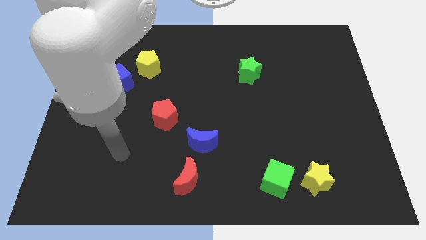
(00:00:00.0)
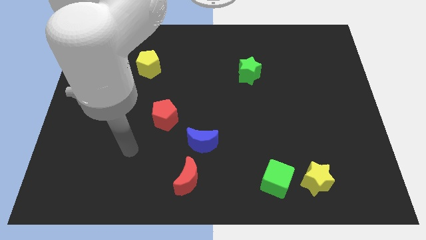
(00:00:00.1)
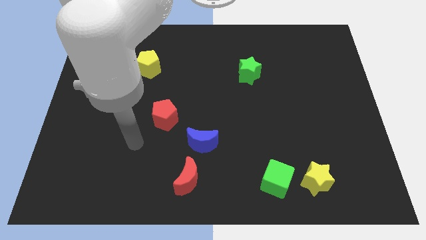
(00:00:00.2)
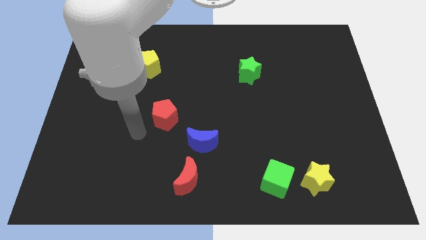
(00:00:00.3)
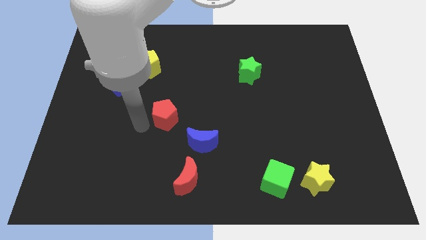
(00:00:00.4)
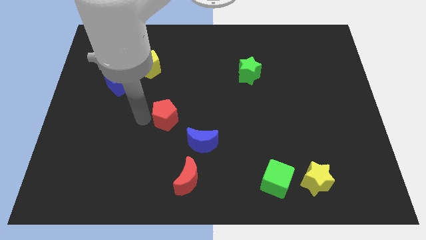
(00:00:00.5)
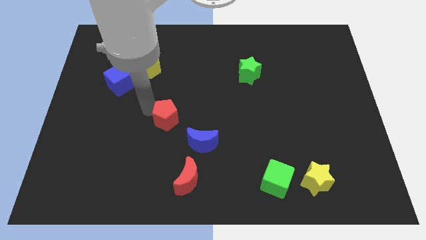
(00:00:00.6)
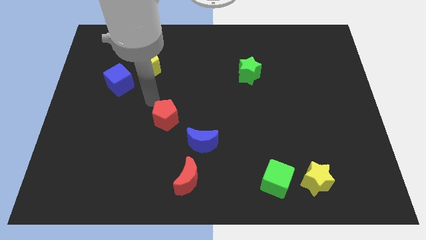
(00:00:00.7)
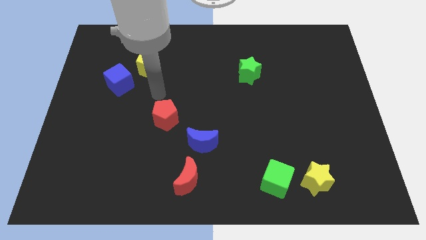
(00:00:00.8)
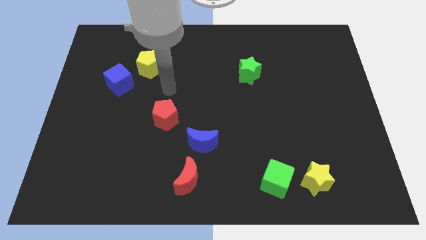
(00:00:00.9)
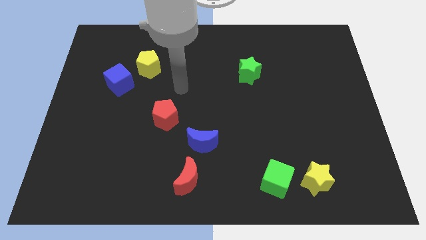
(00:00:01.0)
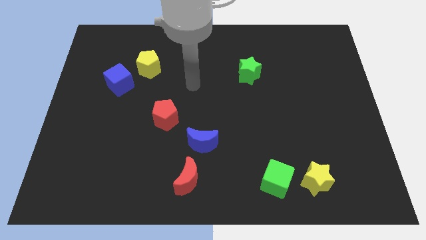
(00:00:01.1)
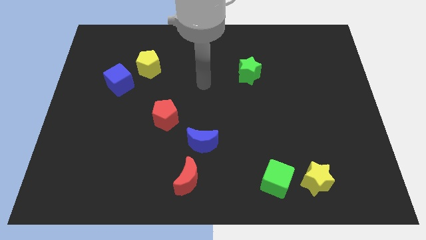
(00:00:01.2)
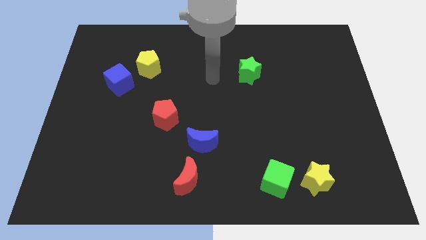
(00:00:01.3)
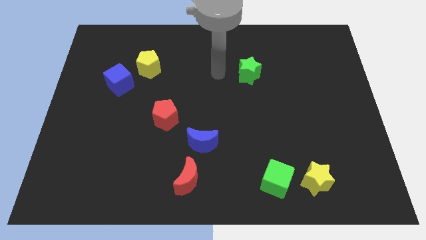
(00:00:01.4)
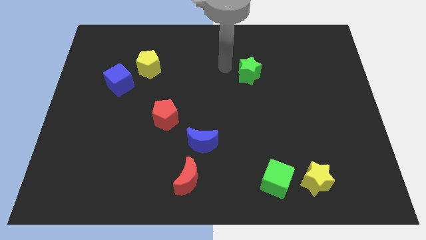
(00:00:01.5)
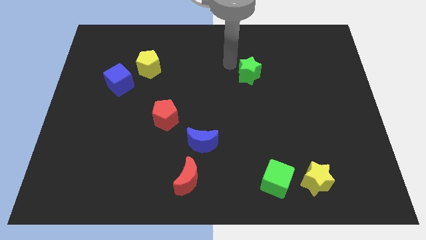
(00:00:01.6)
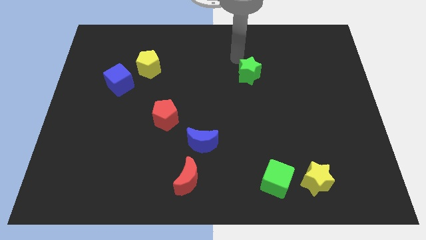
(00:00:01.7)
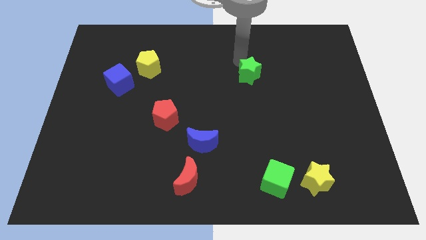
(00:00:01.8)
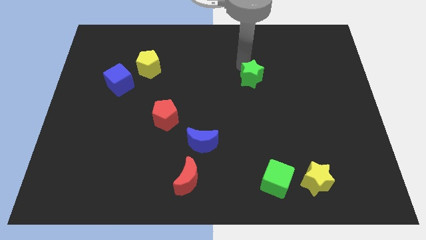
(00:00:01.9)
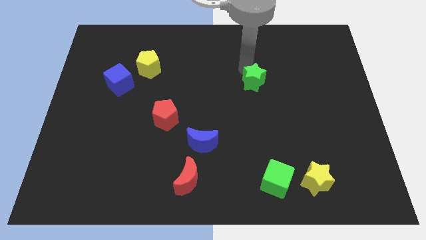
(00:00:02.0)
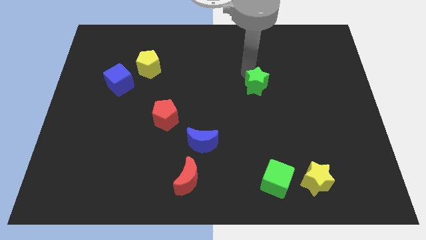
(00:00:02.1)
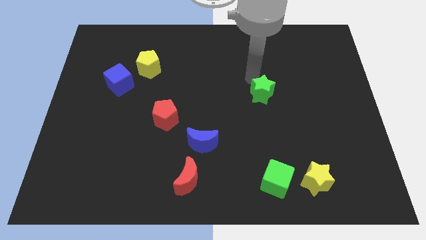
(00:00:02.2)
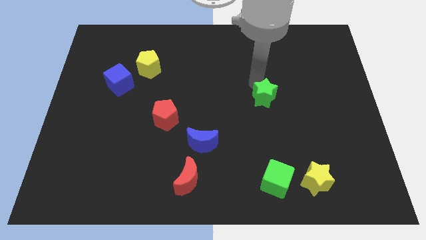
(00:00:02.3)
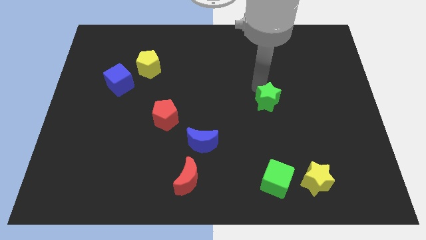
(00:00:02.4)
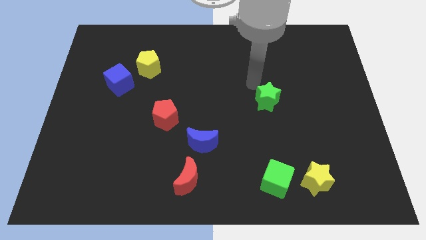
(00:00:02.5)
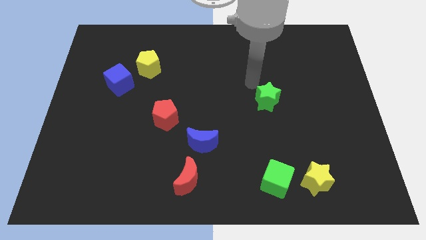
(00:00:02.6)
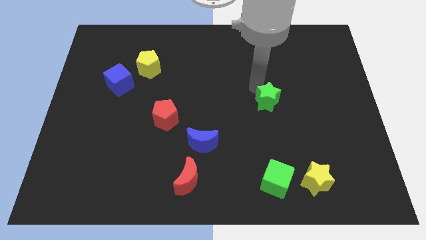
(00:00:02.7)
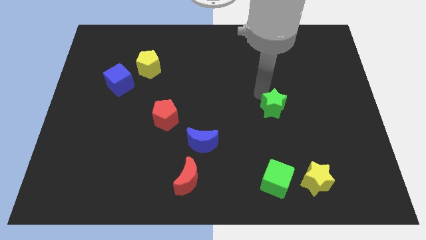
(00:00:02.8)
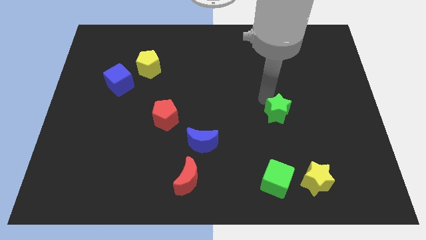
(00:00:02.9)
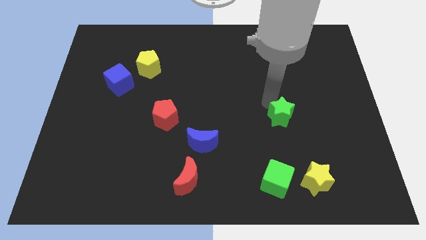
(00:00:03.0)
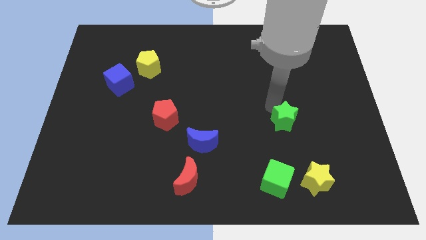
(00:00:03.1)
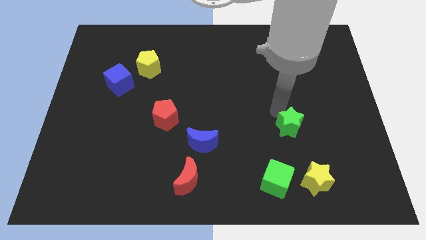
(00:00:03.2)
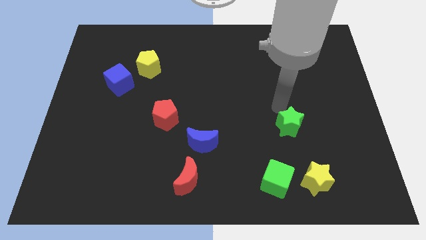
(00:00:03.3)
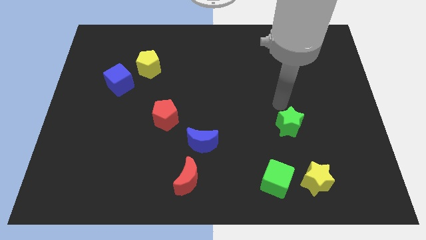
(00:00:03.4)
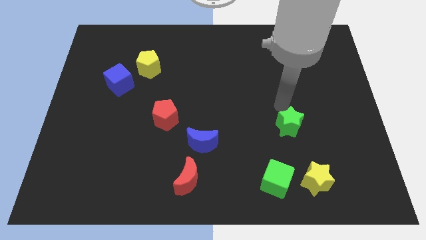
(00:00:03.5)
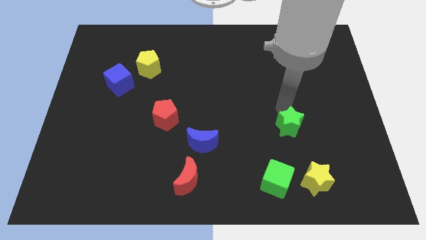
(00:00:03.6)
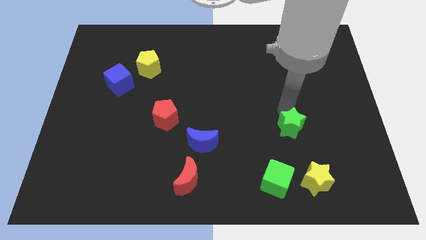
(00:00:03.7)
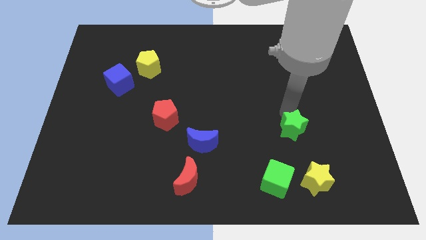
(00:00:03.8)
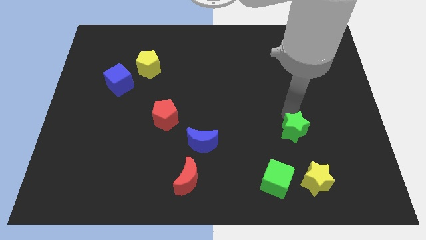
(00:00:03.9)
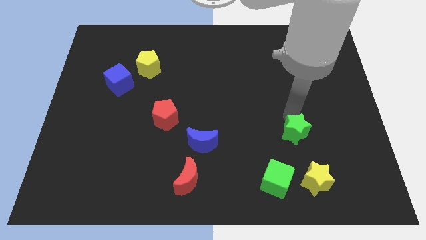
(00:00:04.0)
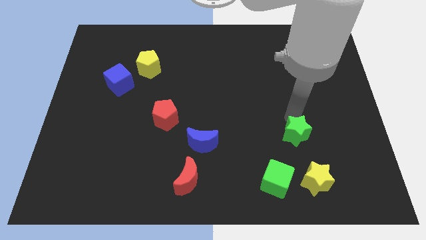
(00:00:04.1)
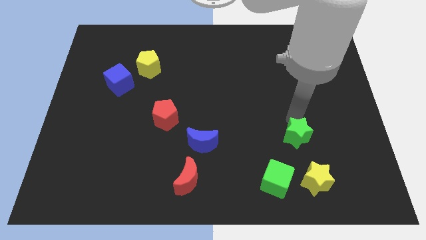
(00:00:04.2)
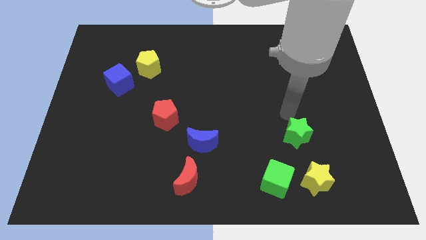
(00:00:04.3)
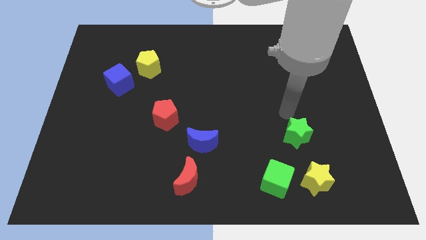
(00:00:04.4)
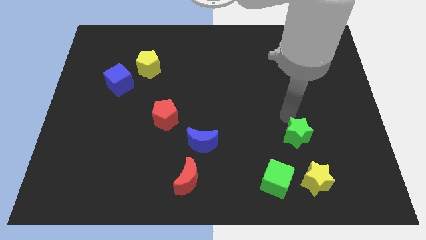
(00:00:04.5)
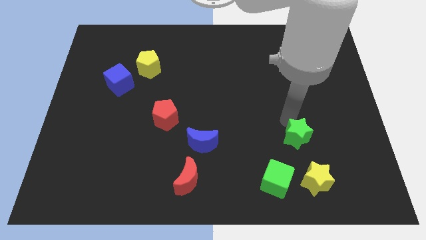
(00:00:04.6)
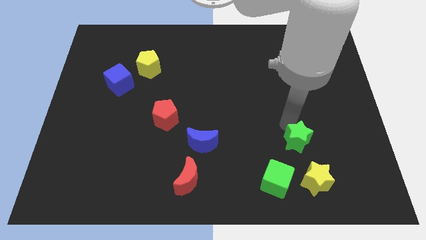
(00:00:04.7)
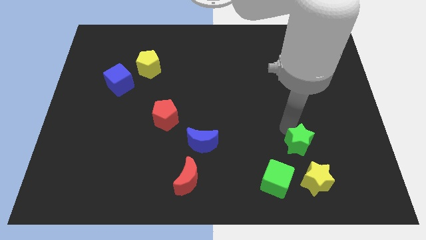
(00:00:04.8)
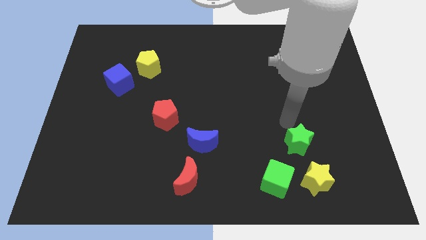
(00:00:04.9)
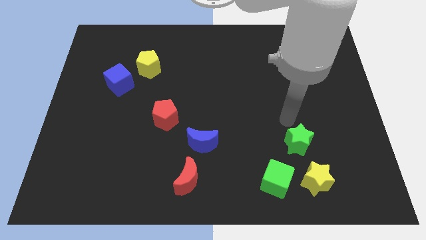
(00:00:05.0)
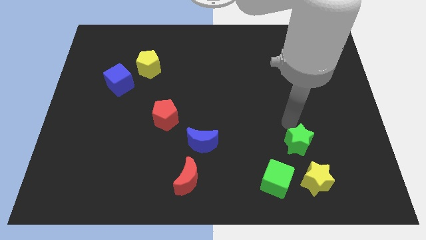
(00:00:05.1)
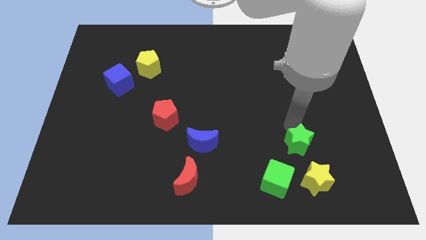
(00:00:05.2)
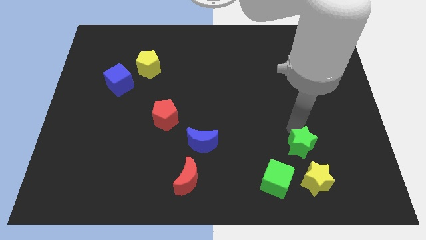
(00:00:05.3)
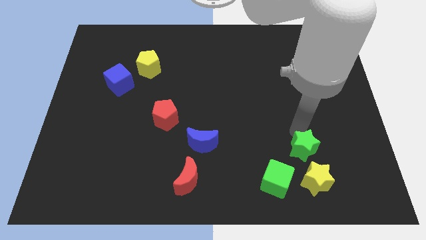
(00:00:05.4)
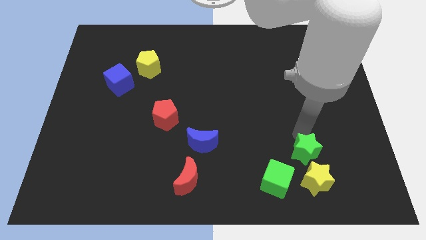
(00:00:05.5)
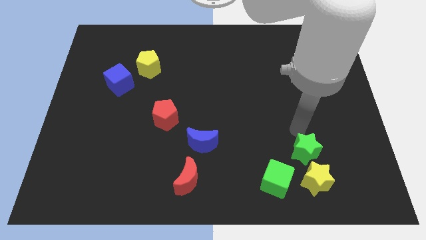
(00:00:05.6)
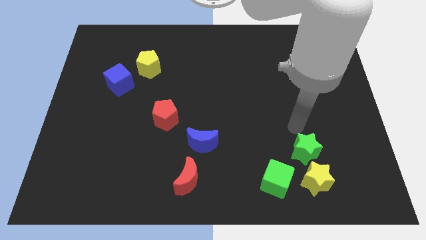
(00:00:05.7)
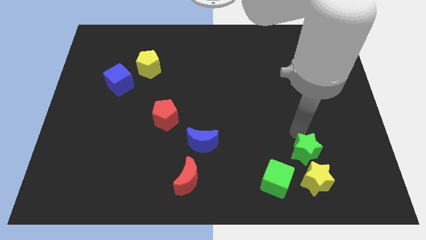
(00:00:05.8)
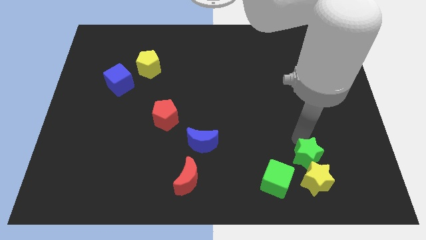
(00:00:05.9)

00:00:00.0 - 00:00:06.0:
push the green star to the yellow star

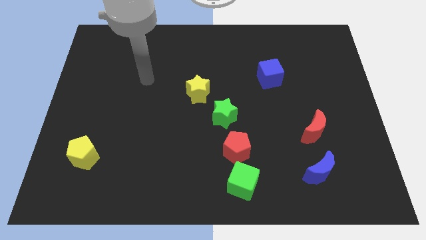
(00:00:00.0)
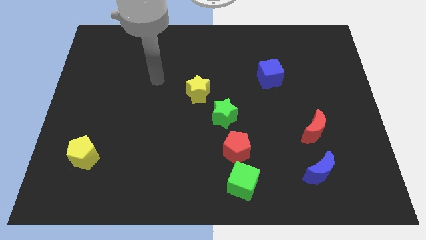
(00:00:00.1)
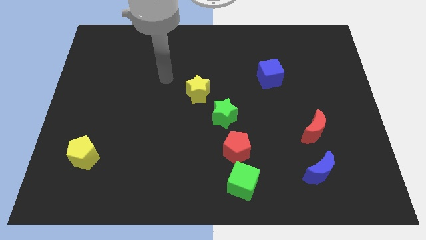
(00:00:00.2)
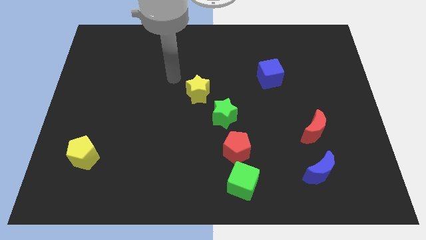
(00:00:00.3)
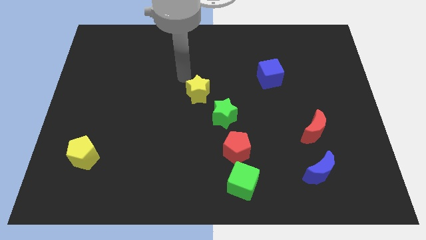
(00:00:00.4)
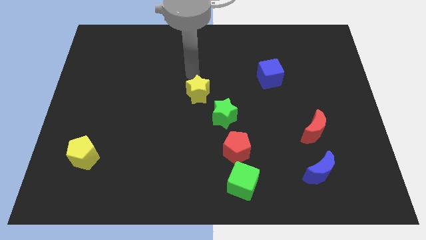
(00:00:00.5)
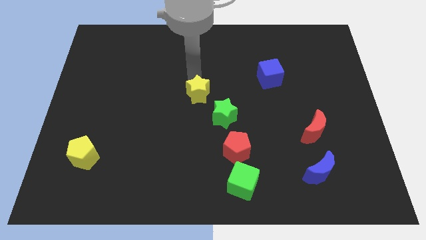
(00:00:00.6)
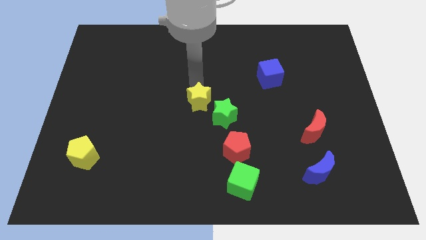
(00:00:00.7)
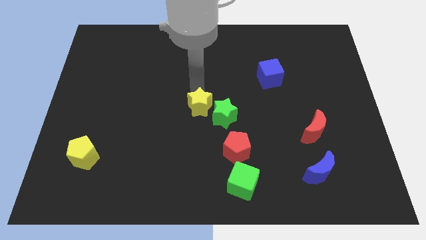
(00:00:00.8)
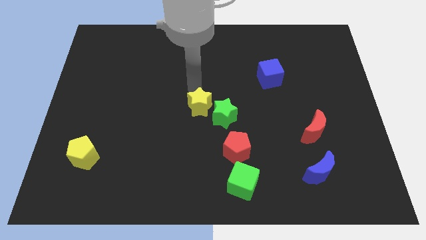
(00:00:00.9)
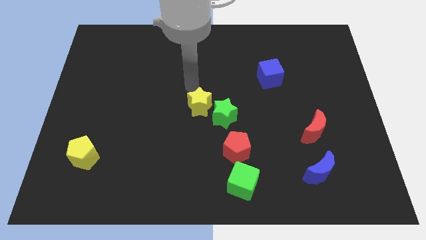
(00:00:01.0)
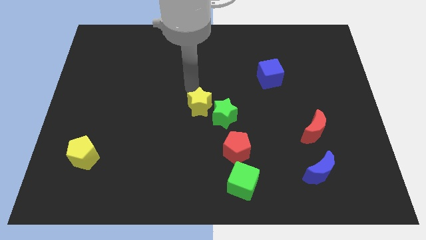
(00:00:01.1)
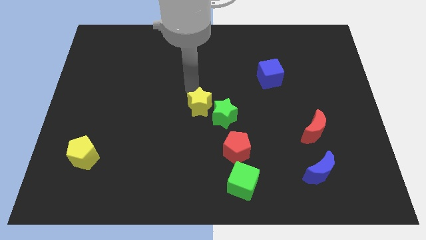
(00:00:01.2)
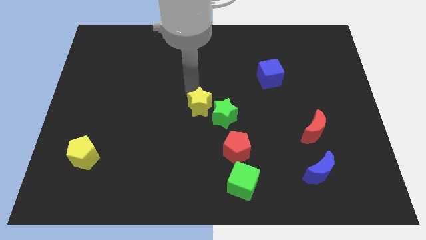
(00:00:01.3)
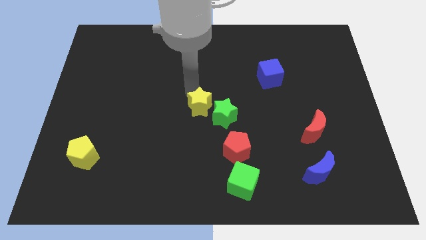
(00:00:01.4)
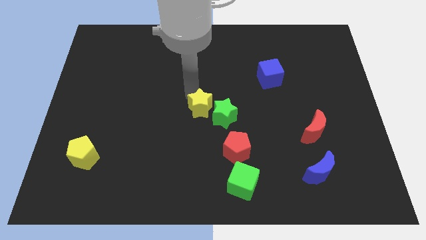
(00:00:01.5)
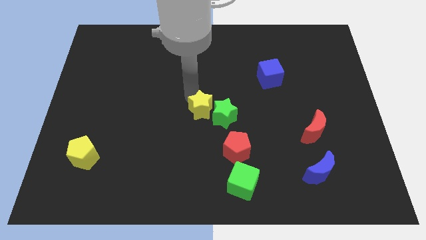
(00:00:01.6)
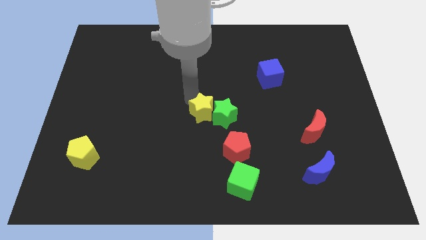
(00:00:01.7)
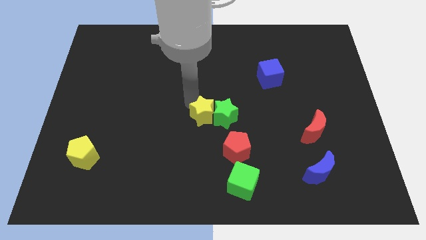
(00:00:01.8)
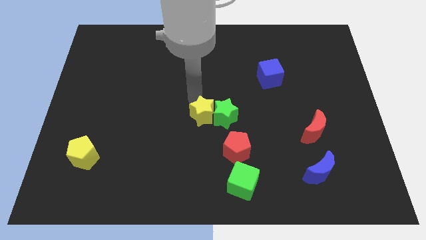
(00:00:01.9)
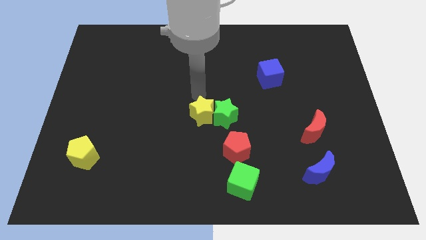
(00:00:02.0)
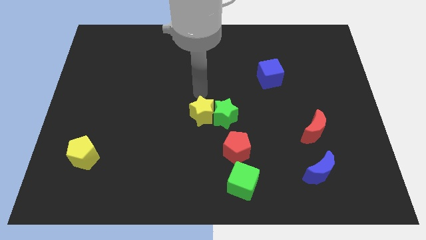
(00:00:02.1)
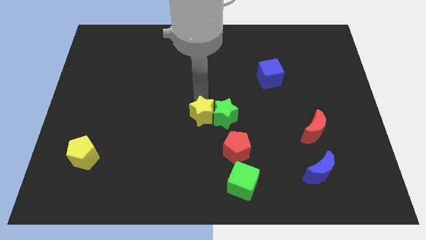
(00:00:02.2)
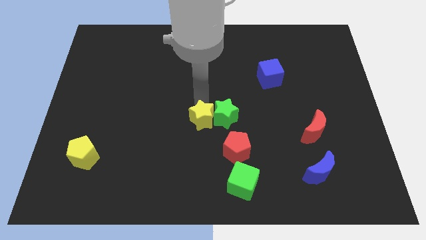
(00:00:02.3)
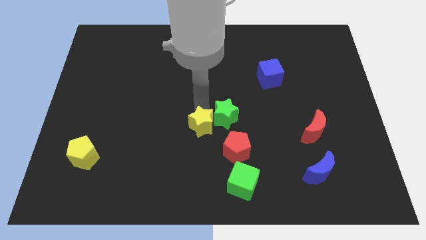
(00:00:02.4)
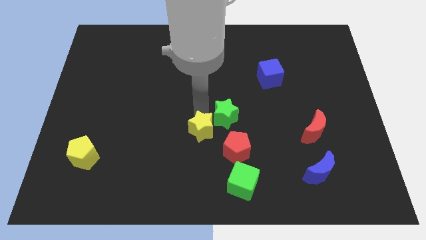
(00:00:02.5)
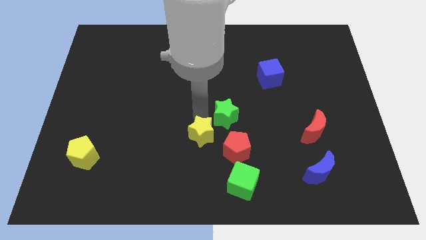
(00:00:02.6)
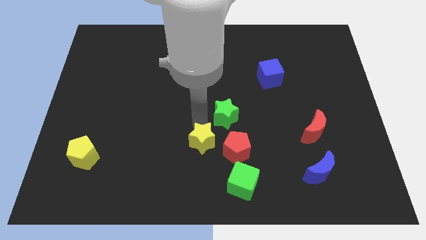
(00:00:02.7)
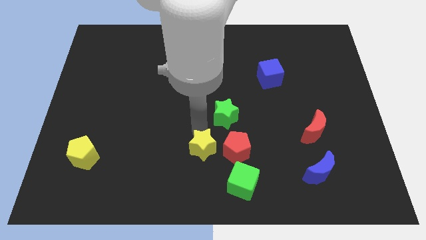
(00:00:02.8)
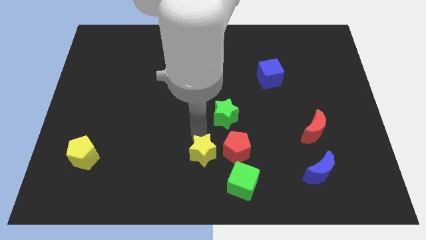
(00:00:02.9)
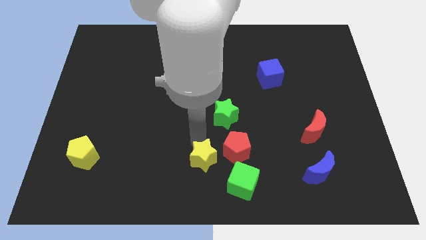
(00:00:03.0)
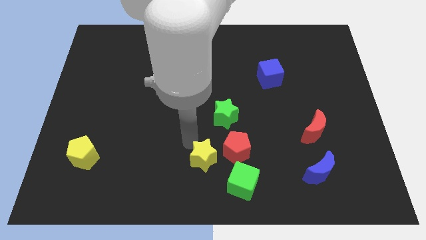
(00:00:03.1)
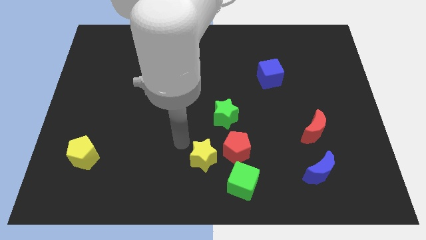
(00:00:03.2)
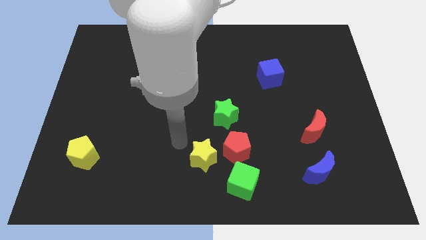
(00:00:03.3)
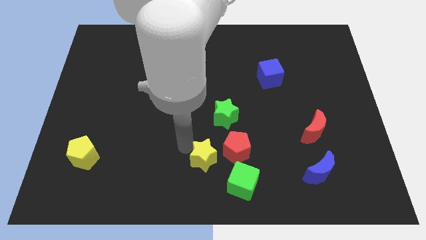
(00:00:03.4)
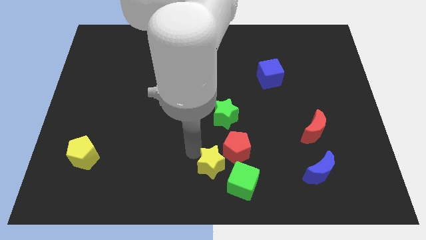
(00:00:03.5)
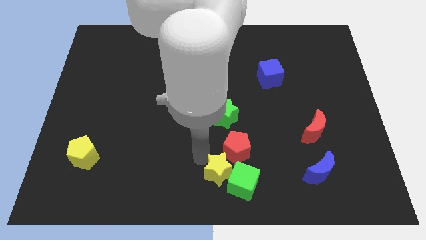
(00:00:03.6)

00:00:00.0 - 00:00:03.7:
slide the yellow star next to the green cube
